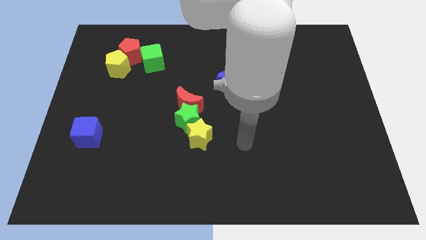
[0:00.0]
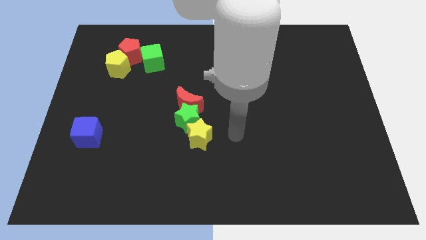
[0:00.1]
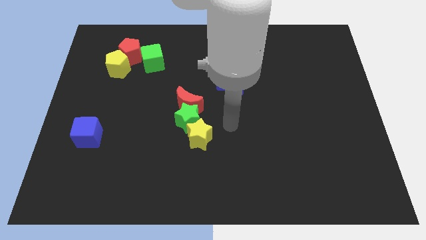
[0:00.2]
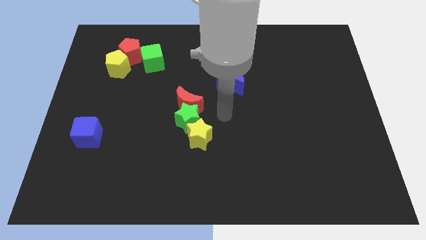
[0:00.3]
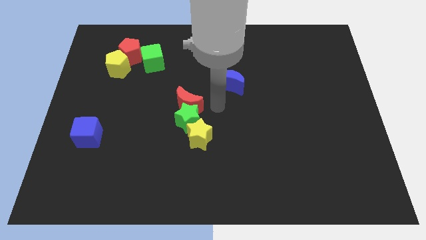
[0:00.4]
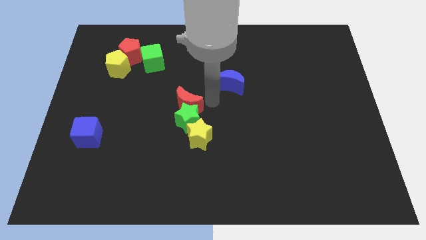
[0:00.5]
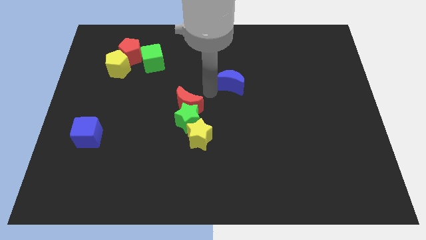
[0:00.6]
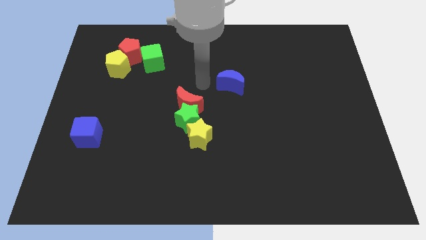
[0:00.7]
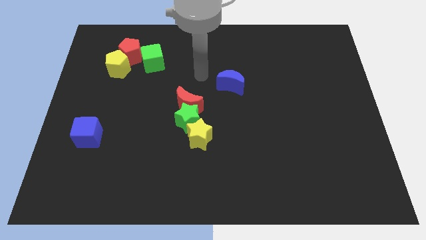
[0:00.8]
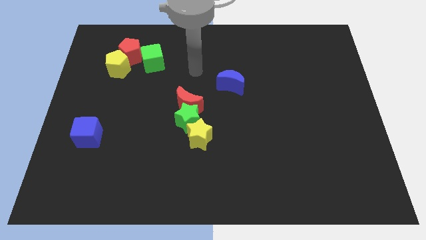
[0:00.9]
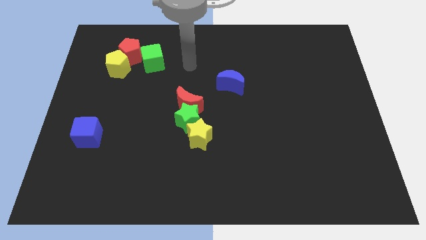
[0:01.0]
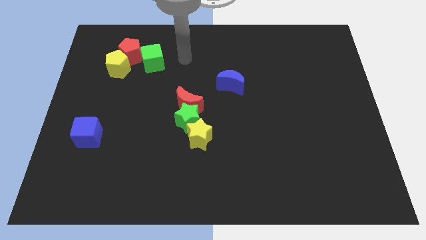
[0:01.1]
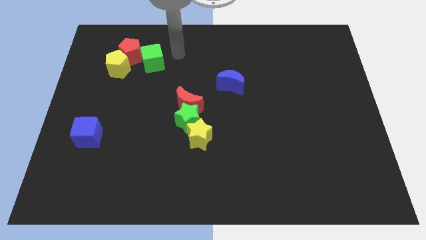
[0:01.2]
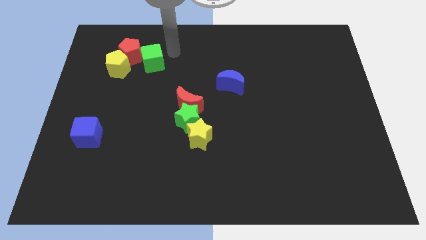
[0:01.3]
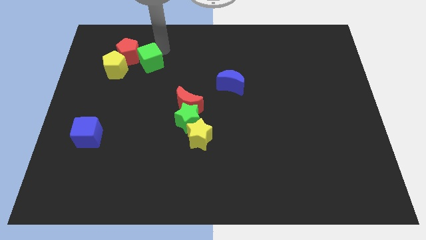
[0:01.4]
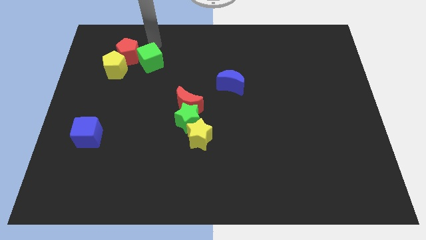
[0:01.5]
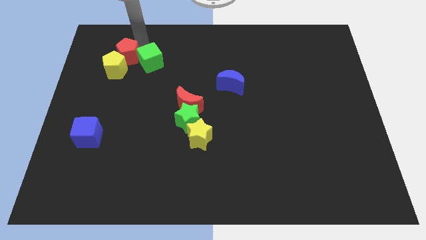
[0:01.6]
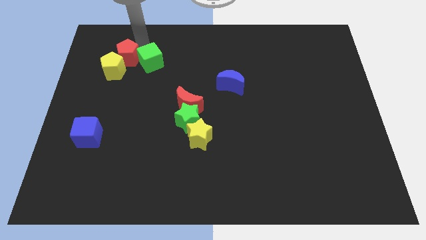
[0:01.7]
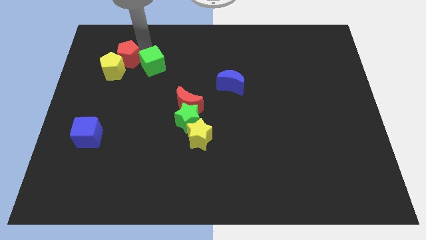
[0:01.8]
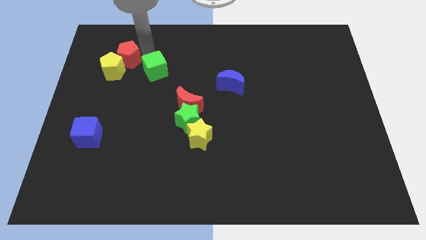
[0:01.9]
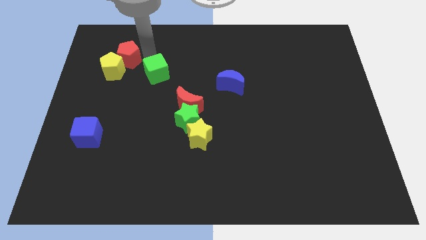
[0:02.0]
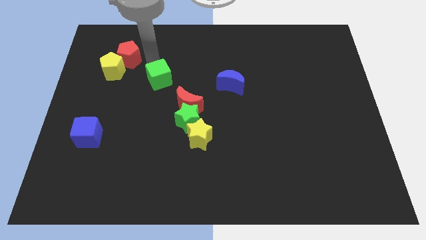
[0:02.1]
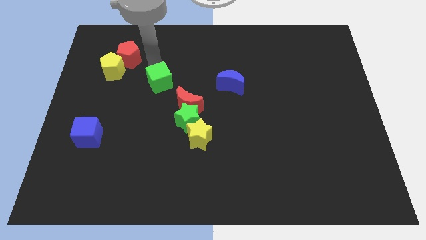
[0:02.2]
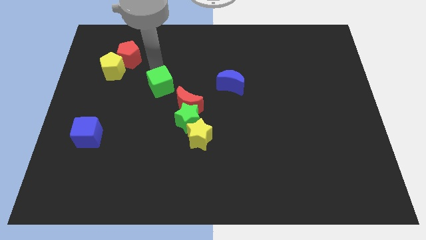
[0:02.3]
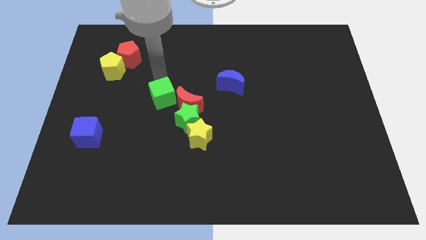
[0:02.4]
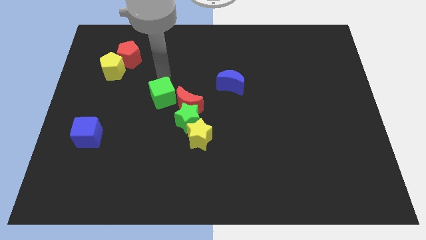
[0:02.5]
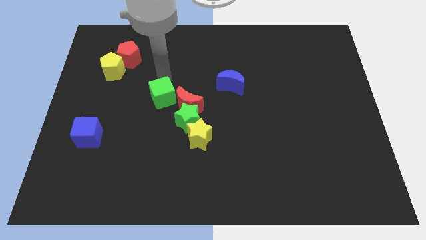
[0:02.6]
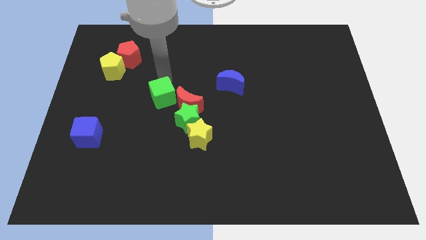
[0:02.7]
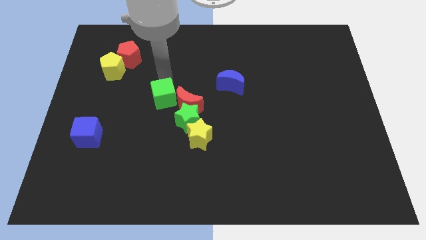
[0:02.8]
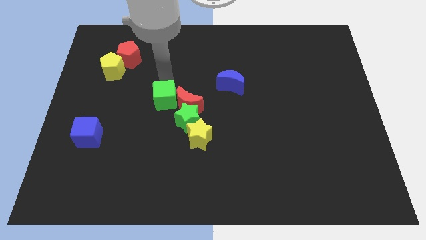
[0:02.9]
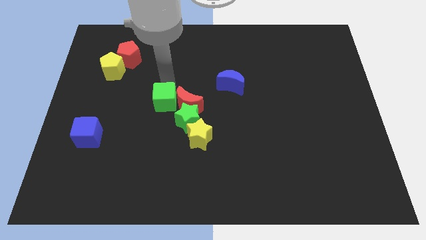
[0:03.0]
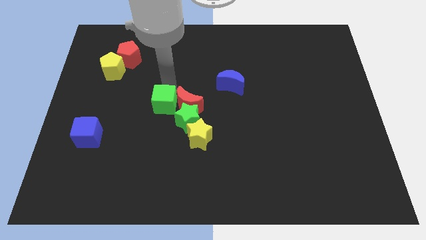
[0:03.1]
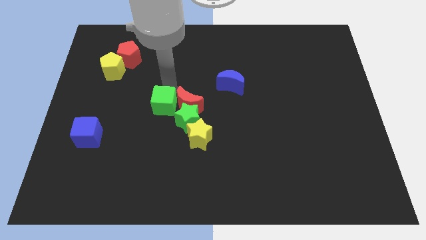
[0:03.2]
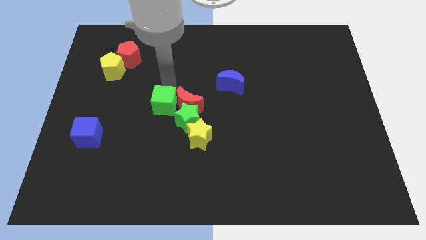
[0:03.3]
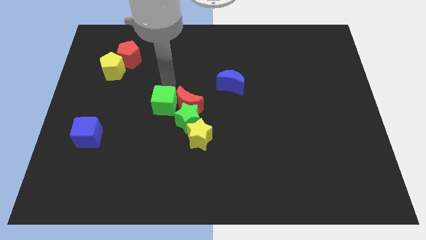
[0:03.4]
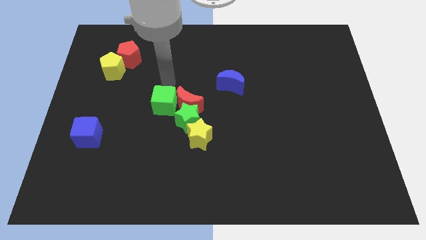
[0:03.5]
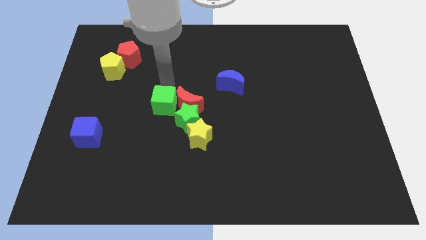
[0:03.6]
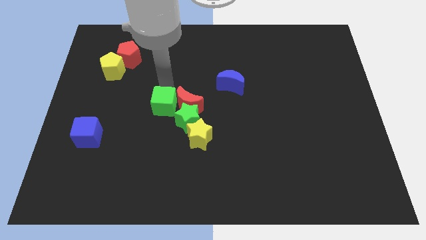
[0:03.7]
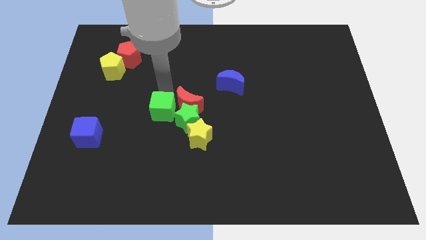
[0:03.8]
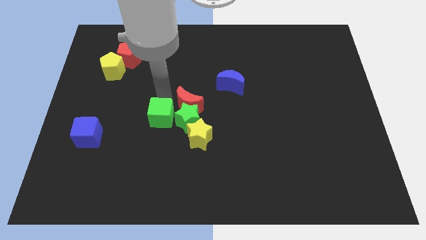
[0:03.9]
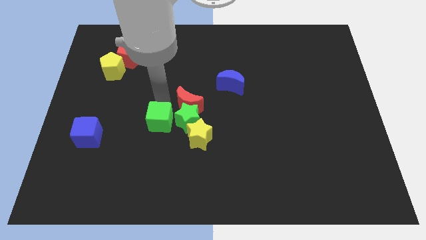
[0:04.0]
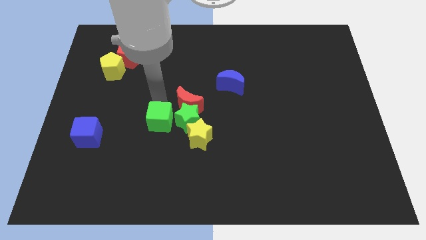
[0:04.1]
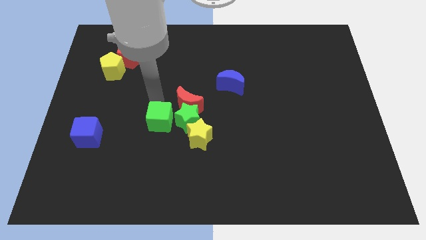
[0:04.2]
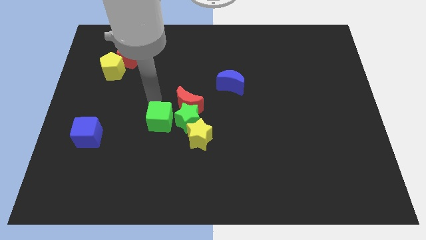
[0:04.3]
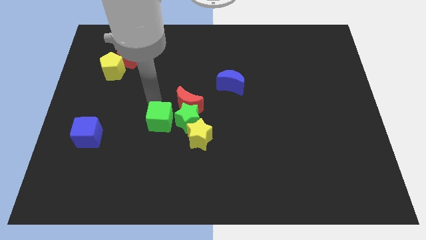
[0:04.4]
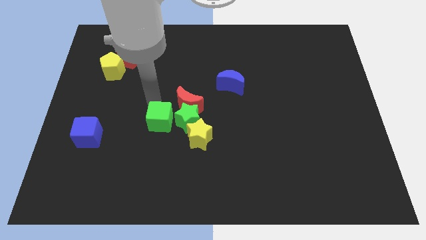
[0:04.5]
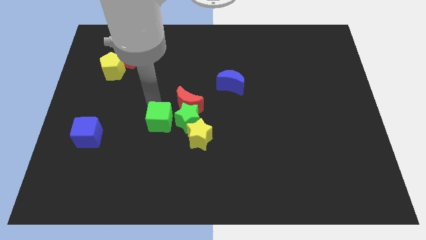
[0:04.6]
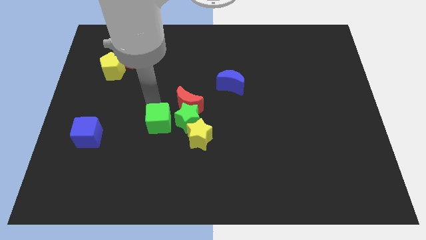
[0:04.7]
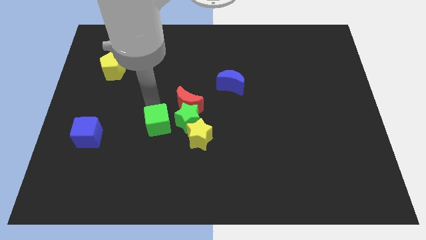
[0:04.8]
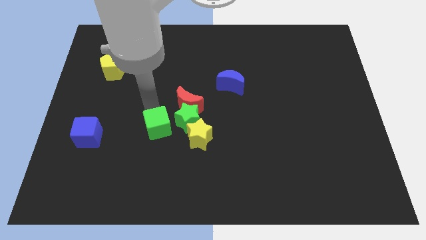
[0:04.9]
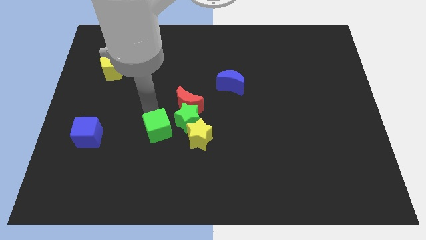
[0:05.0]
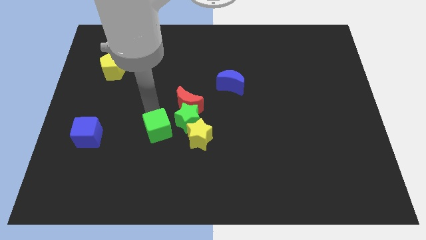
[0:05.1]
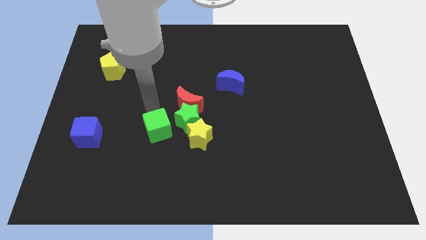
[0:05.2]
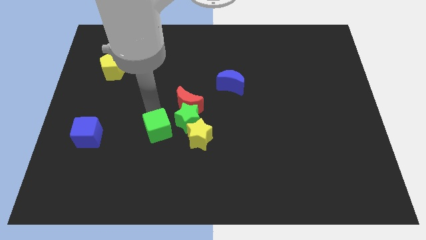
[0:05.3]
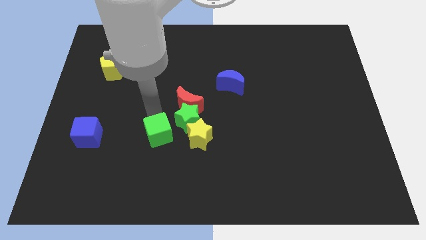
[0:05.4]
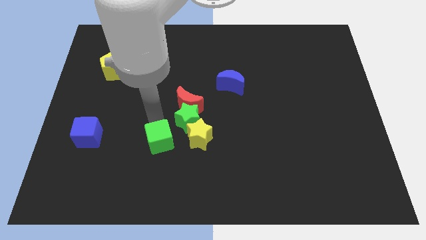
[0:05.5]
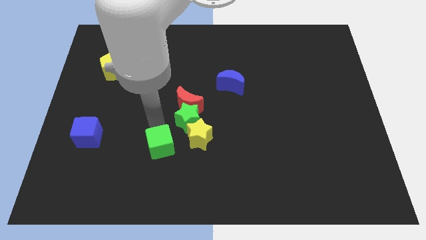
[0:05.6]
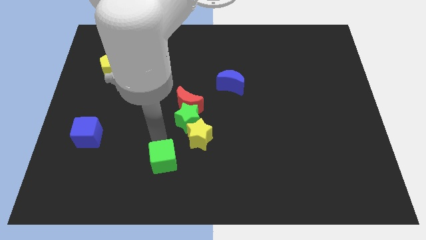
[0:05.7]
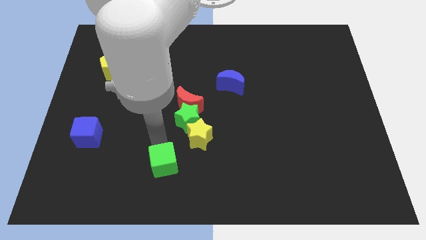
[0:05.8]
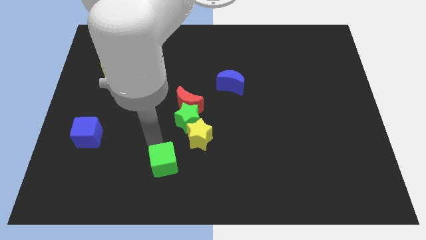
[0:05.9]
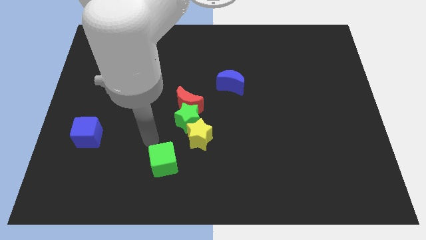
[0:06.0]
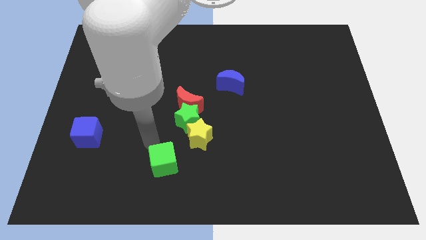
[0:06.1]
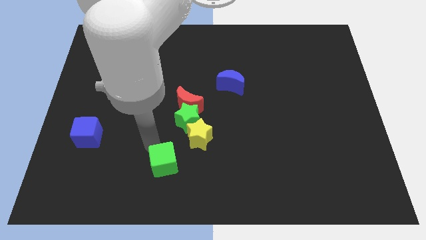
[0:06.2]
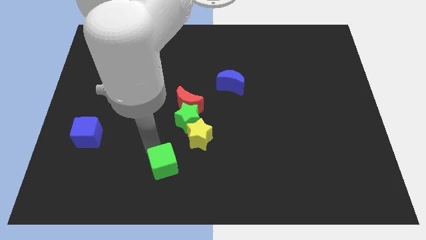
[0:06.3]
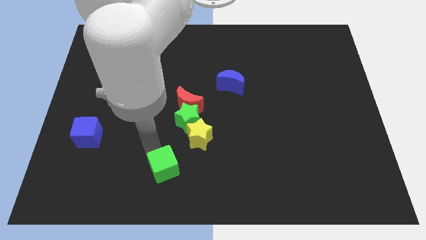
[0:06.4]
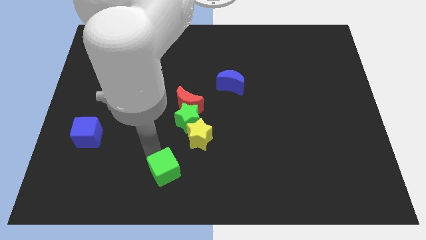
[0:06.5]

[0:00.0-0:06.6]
push the green cube to the bottom
